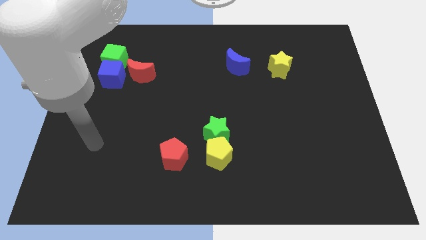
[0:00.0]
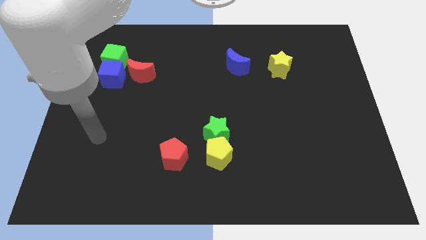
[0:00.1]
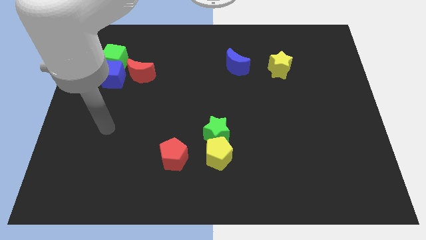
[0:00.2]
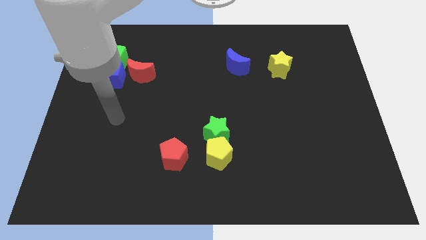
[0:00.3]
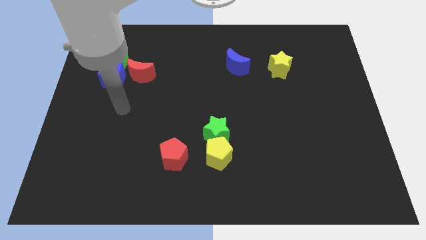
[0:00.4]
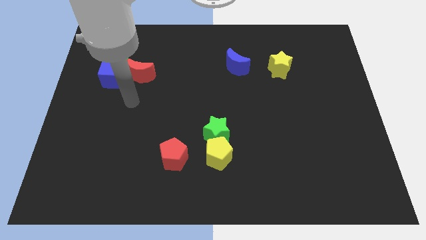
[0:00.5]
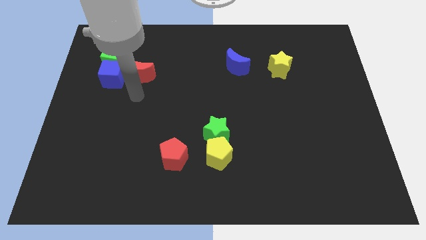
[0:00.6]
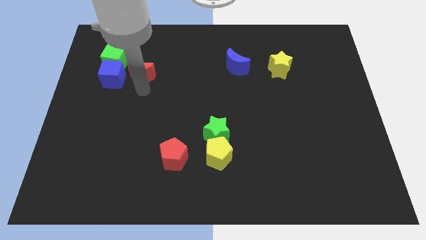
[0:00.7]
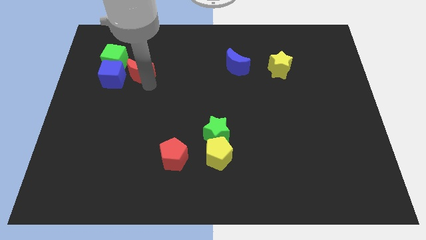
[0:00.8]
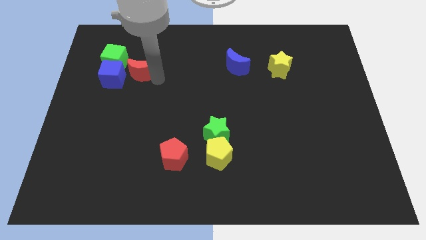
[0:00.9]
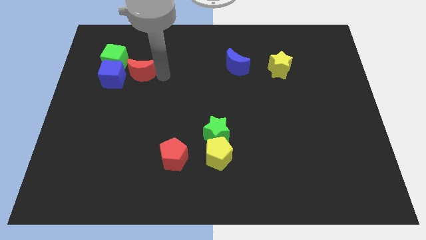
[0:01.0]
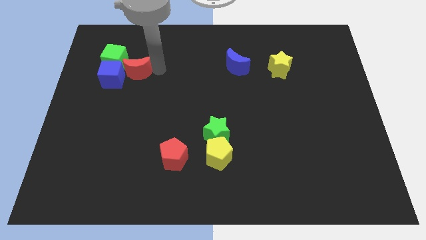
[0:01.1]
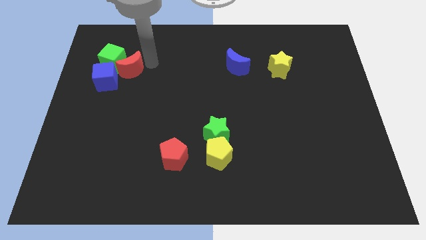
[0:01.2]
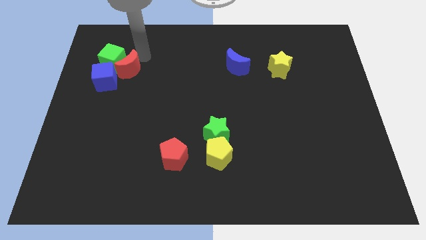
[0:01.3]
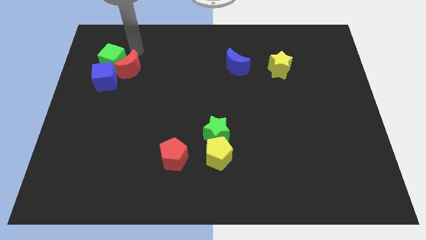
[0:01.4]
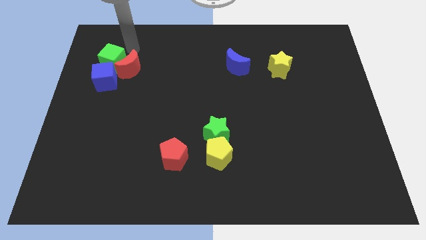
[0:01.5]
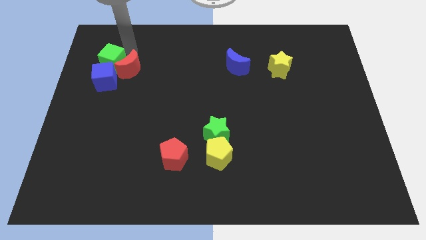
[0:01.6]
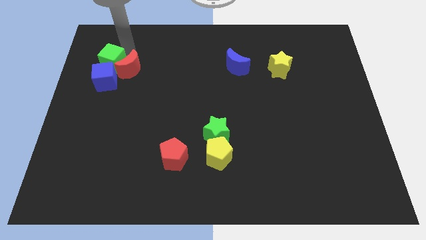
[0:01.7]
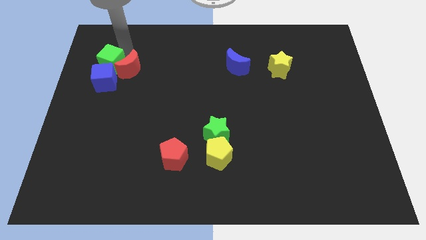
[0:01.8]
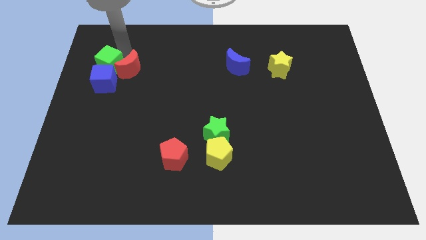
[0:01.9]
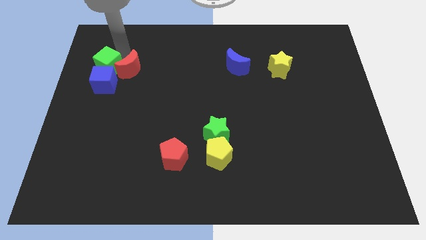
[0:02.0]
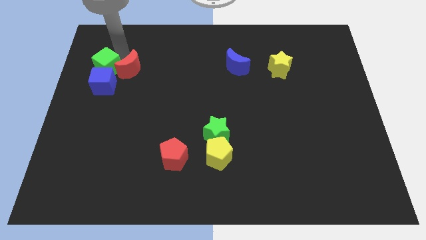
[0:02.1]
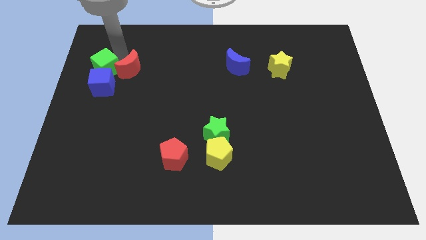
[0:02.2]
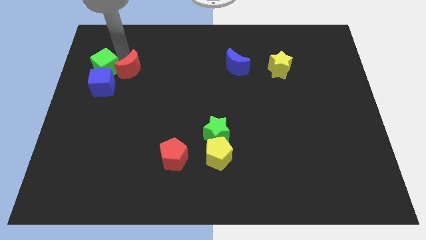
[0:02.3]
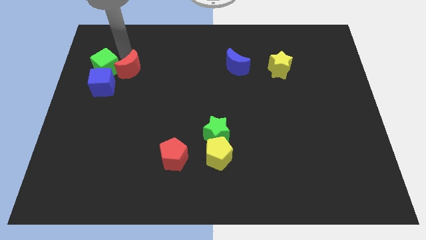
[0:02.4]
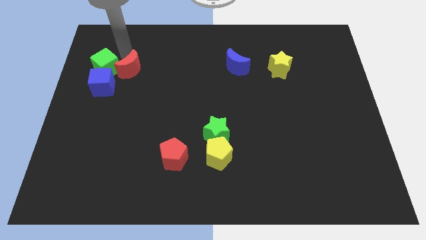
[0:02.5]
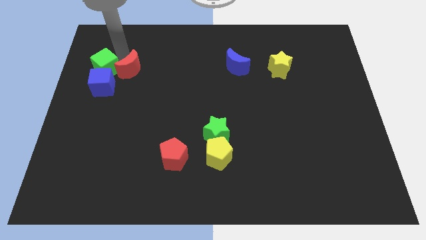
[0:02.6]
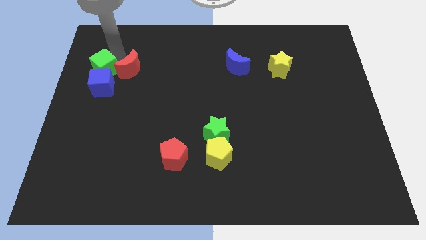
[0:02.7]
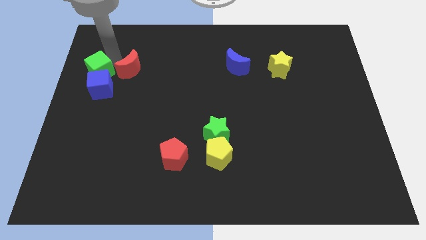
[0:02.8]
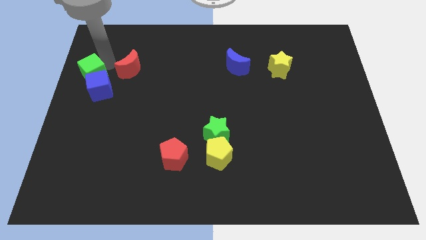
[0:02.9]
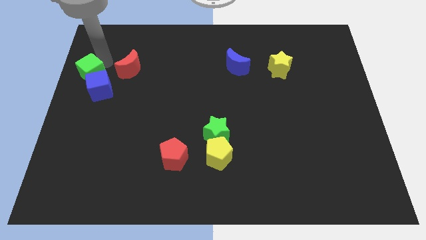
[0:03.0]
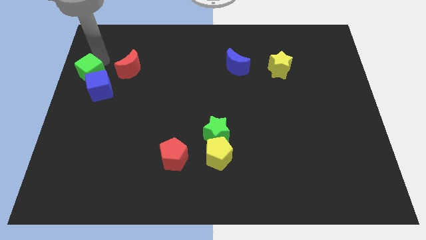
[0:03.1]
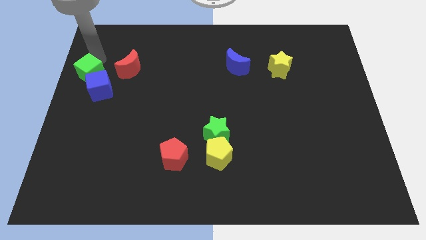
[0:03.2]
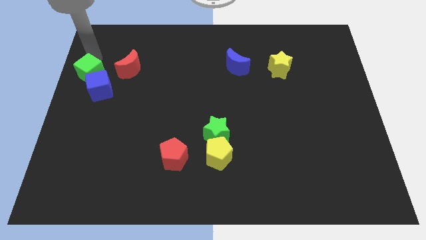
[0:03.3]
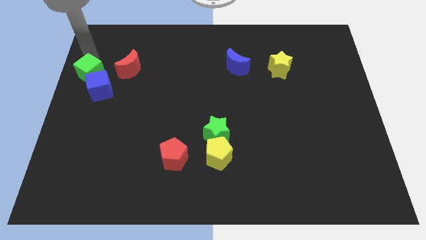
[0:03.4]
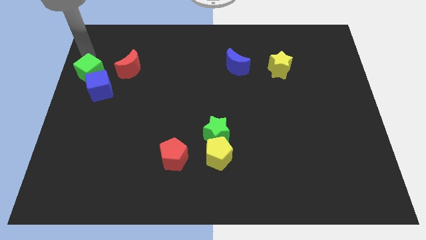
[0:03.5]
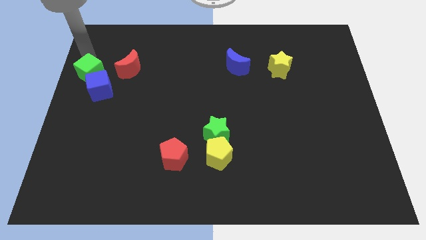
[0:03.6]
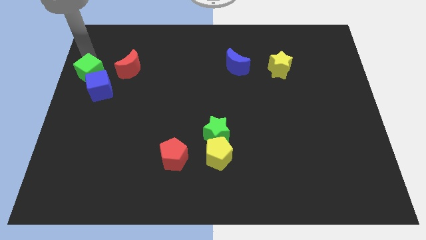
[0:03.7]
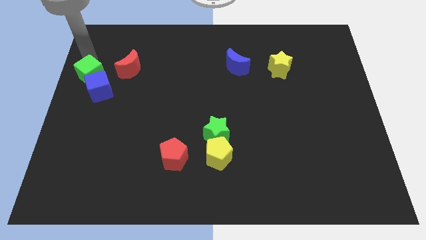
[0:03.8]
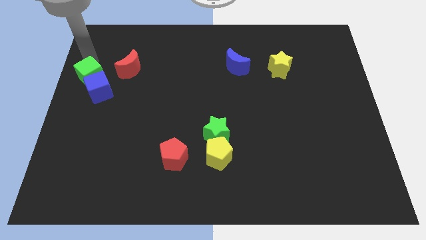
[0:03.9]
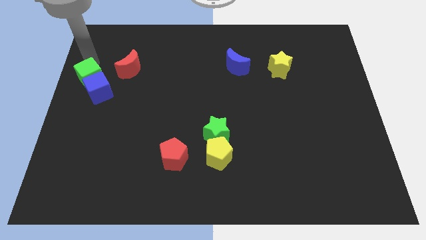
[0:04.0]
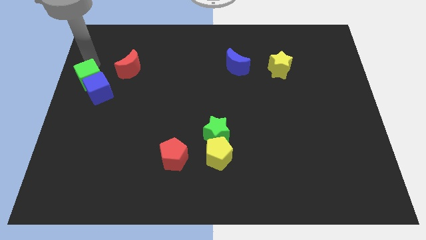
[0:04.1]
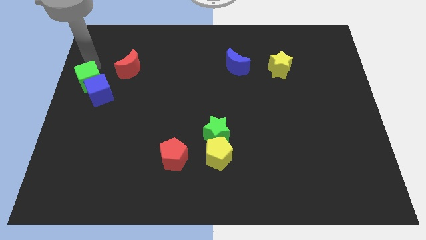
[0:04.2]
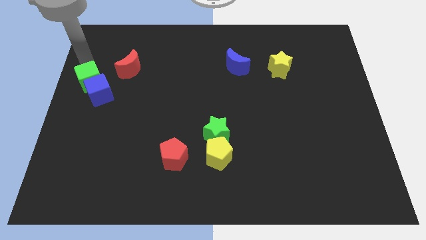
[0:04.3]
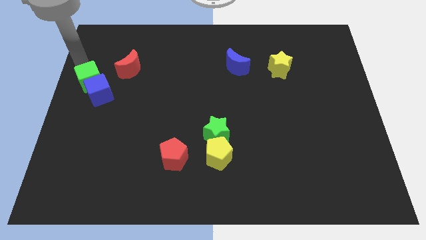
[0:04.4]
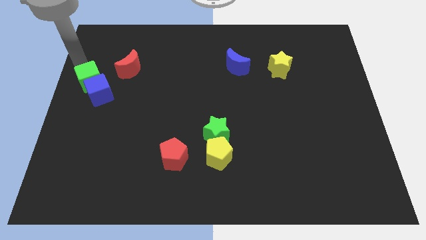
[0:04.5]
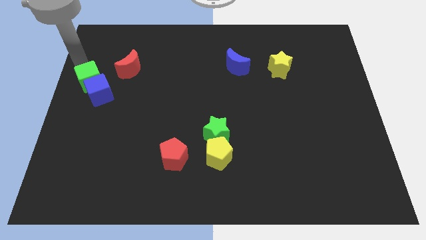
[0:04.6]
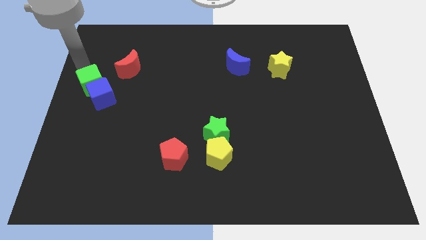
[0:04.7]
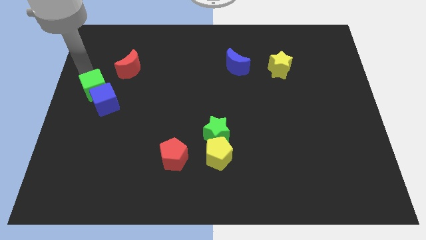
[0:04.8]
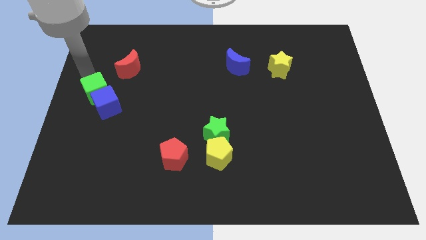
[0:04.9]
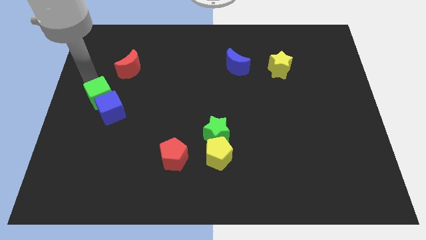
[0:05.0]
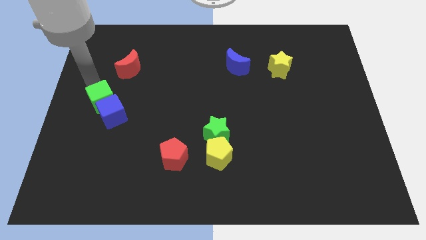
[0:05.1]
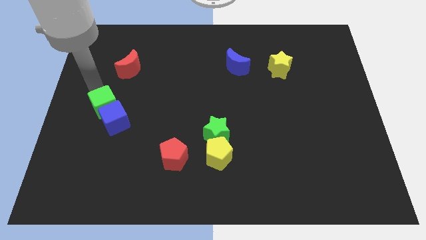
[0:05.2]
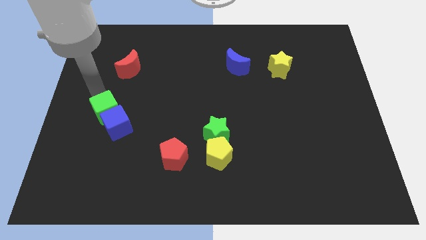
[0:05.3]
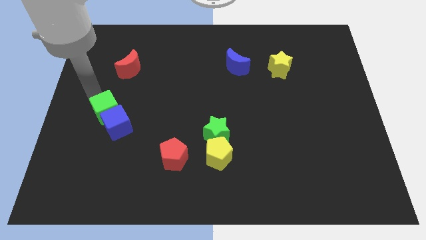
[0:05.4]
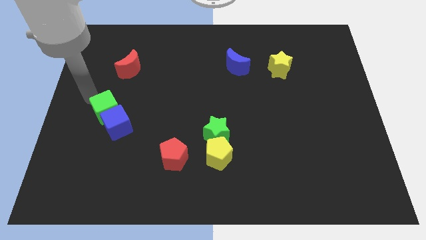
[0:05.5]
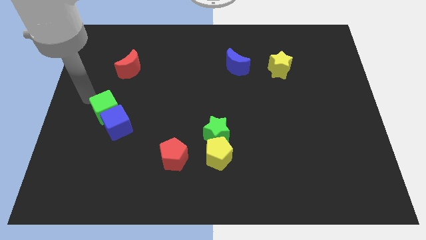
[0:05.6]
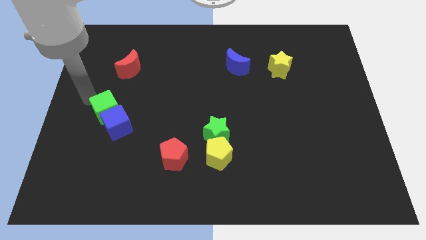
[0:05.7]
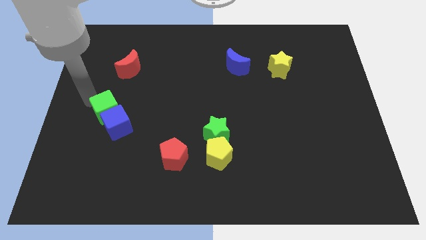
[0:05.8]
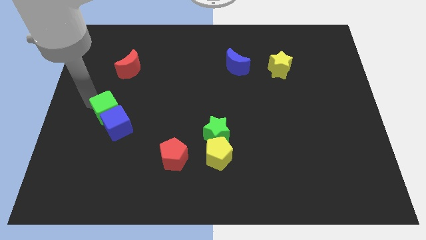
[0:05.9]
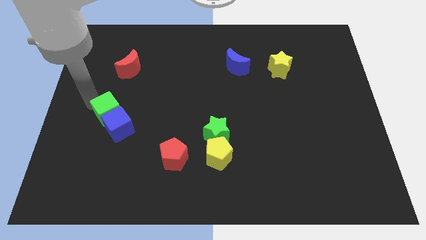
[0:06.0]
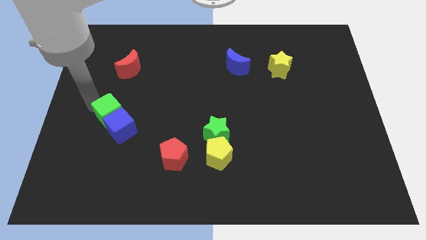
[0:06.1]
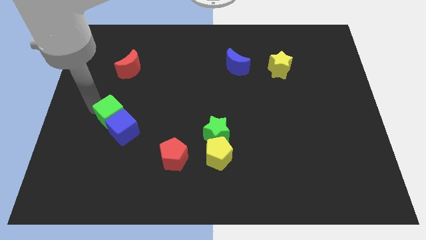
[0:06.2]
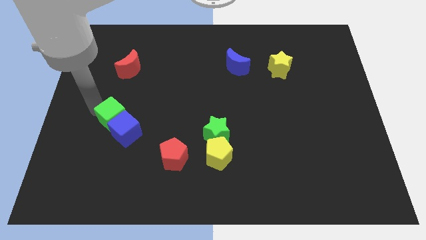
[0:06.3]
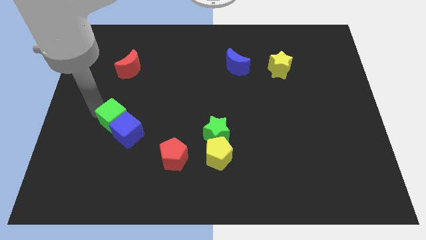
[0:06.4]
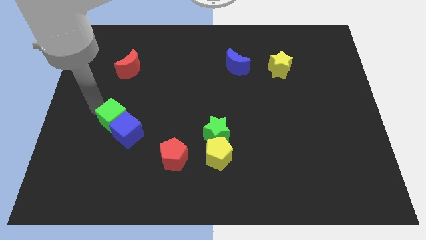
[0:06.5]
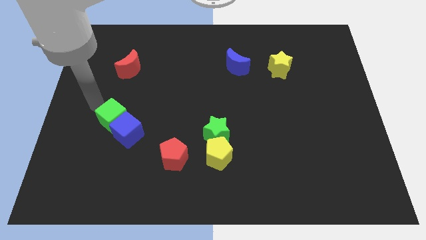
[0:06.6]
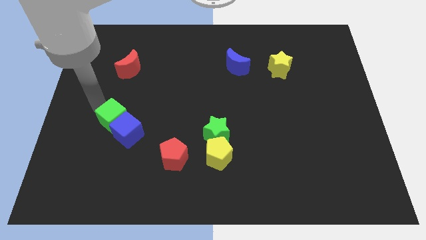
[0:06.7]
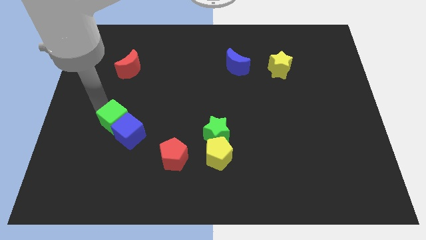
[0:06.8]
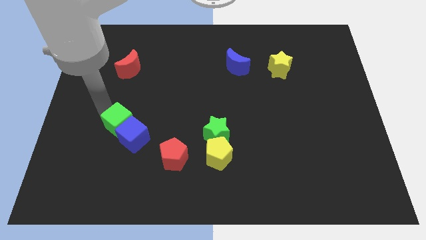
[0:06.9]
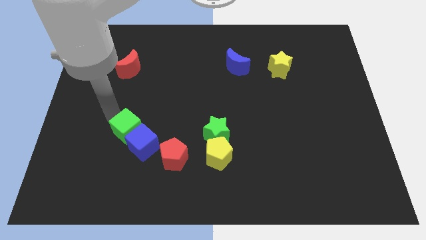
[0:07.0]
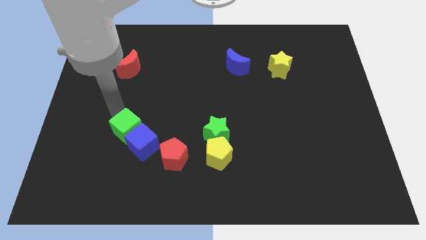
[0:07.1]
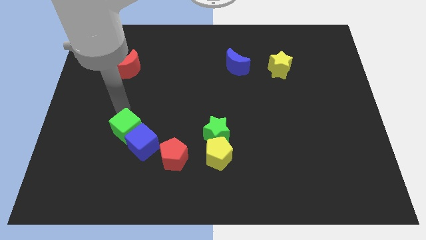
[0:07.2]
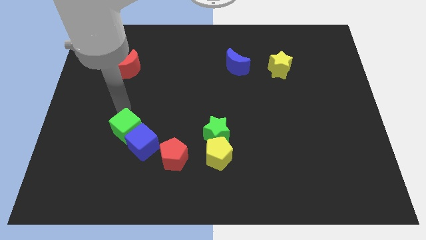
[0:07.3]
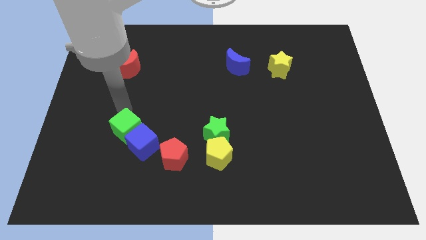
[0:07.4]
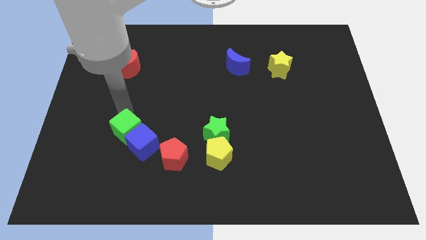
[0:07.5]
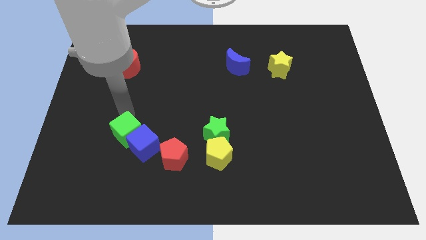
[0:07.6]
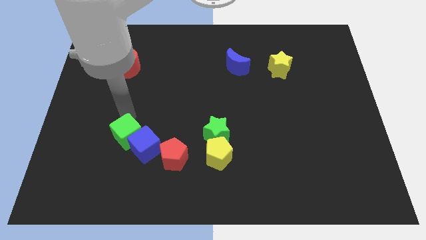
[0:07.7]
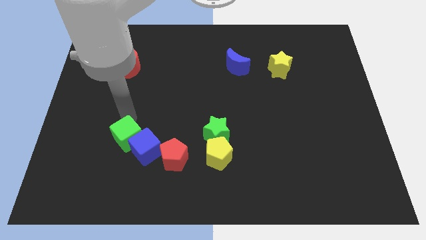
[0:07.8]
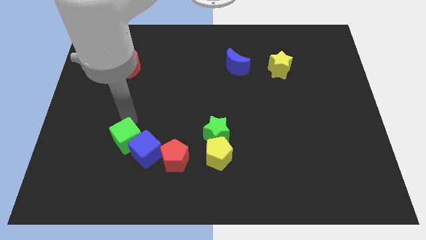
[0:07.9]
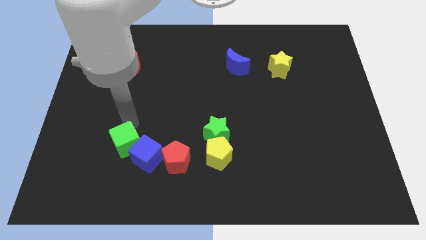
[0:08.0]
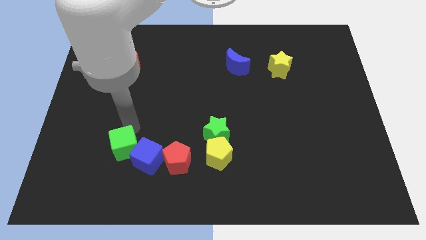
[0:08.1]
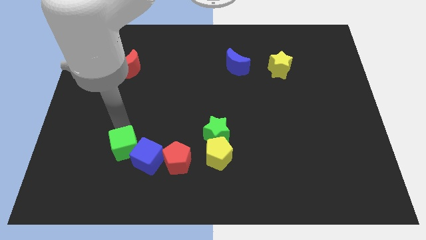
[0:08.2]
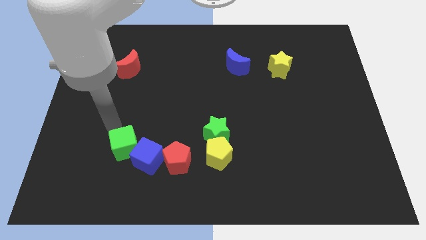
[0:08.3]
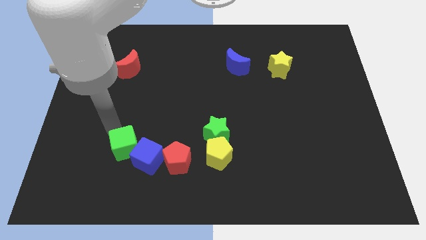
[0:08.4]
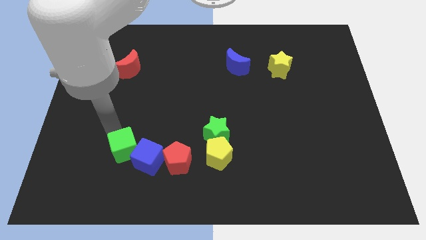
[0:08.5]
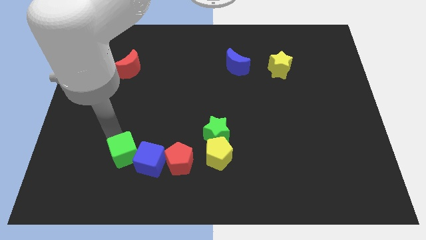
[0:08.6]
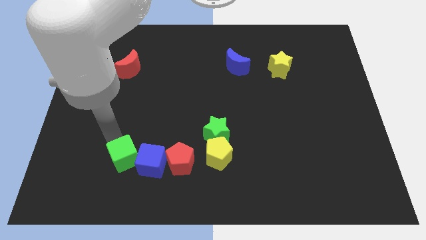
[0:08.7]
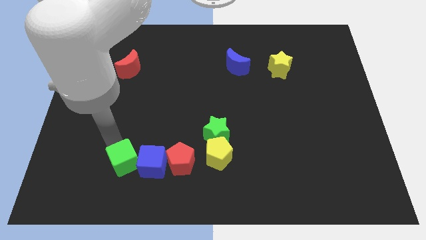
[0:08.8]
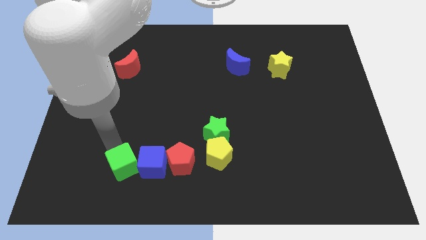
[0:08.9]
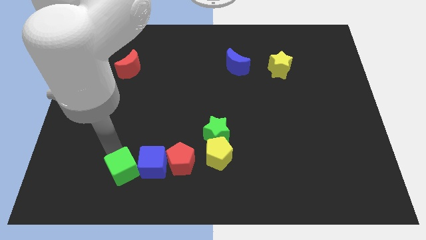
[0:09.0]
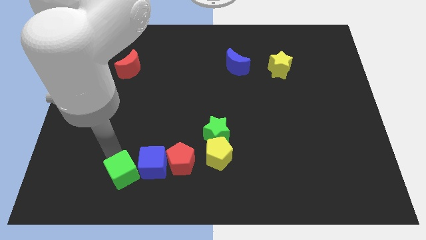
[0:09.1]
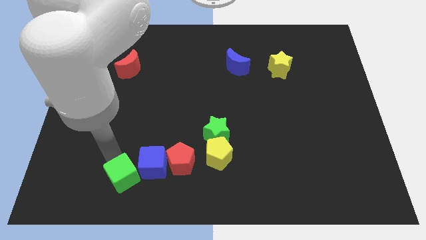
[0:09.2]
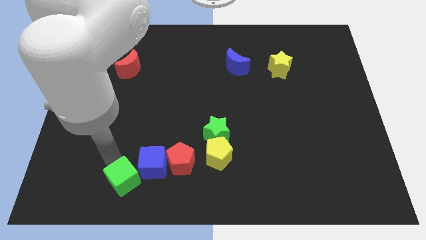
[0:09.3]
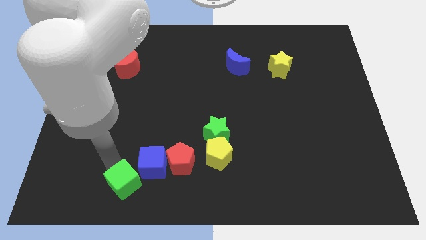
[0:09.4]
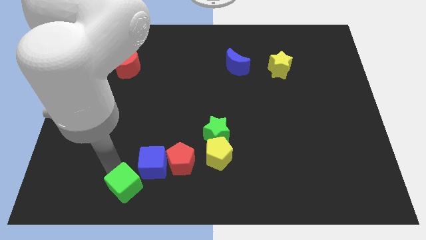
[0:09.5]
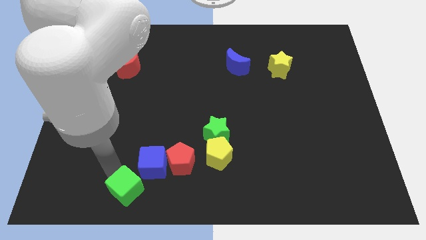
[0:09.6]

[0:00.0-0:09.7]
slide the green cube to the bottom left side of the red pentagon
